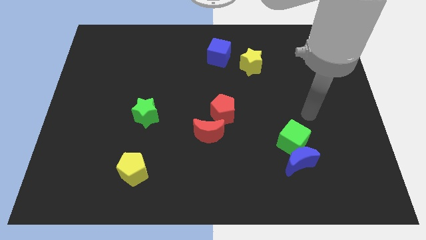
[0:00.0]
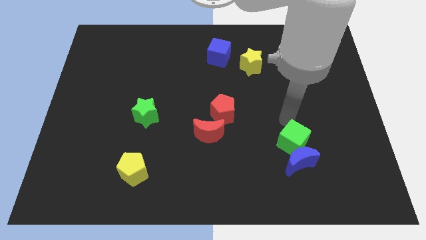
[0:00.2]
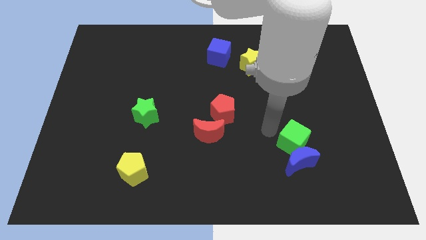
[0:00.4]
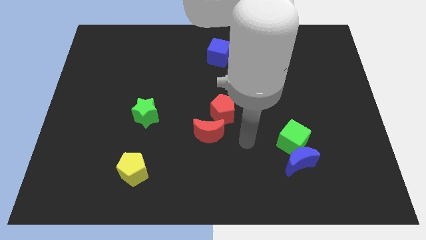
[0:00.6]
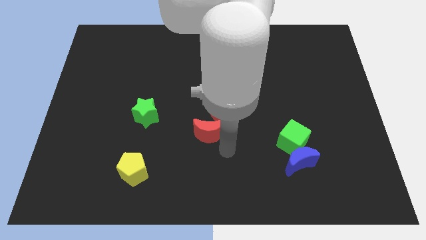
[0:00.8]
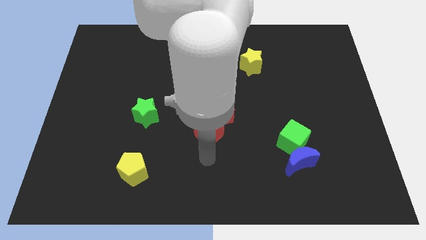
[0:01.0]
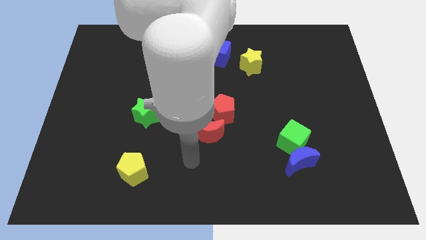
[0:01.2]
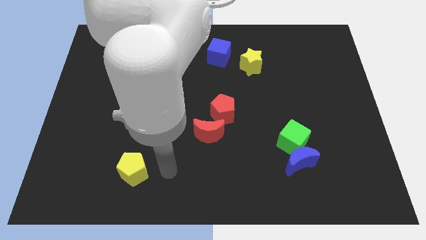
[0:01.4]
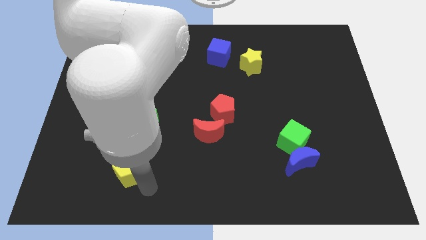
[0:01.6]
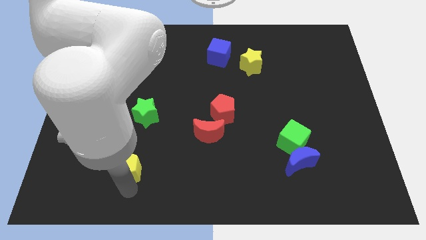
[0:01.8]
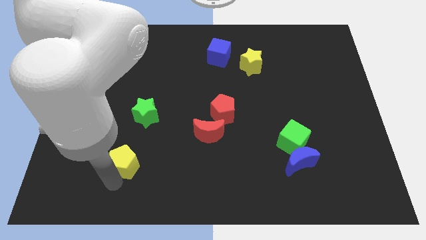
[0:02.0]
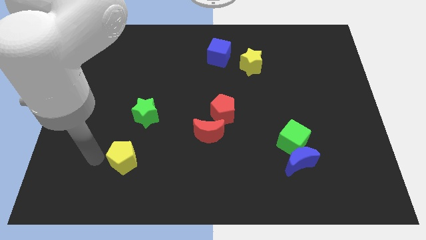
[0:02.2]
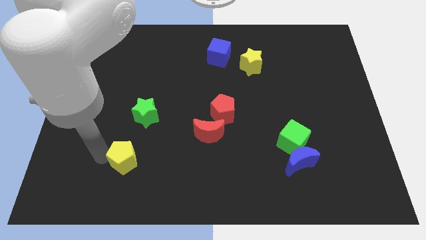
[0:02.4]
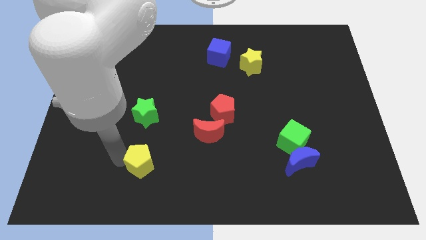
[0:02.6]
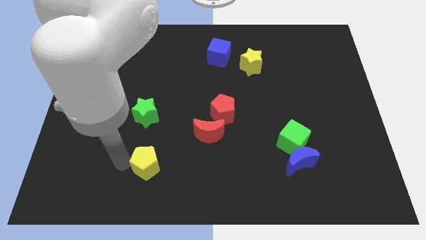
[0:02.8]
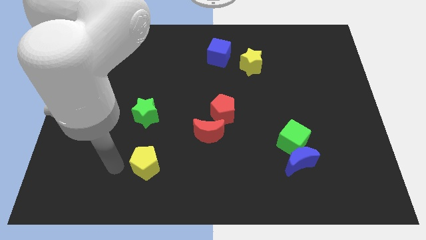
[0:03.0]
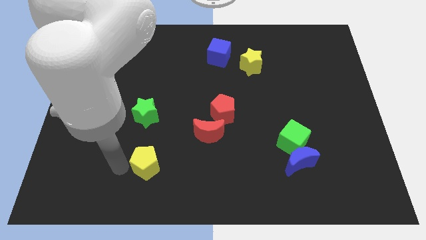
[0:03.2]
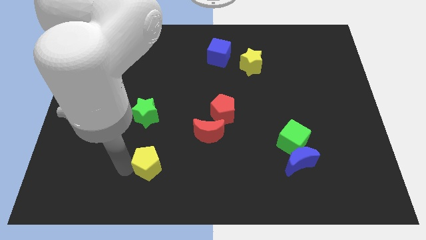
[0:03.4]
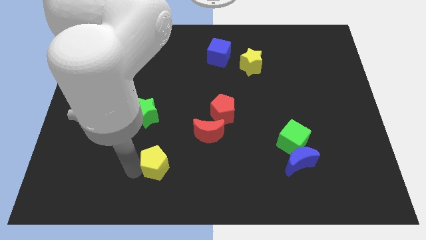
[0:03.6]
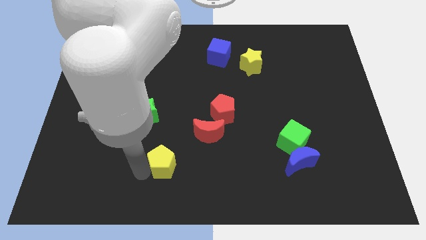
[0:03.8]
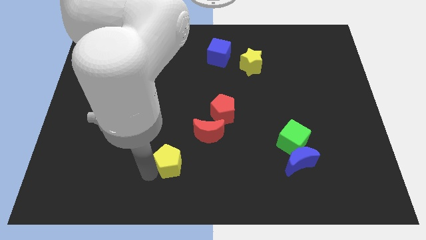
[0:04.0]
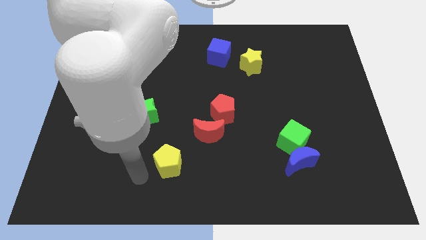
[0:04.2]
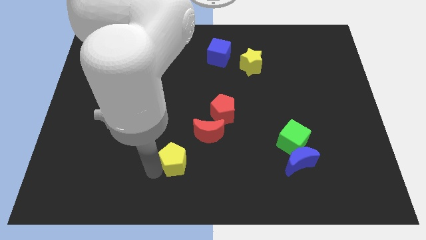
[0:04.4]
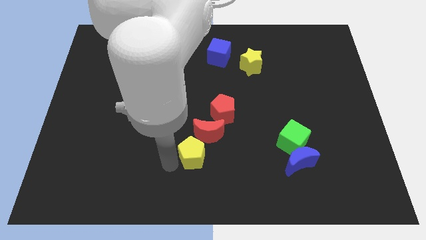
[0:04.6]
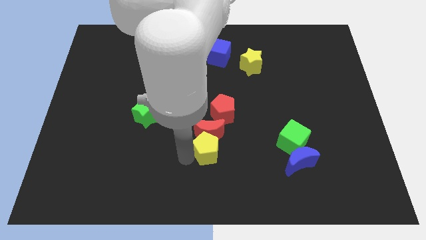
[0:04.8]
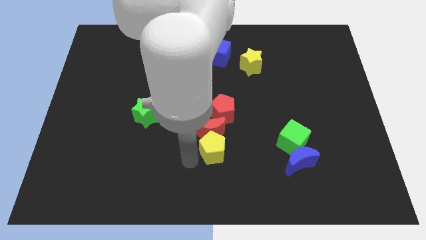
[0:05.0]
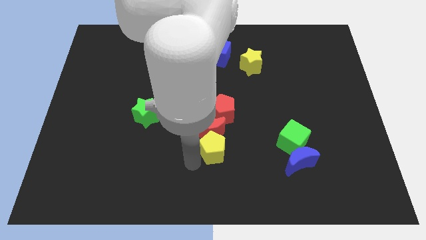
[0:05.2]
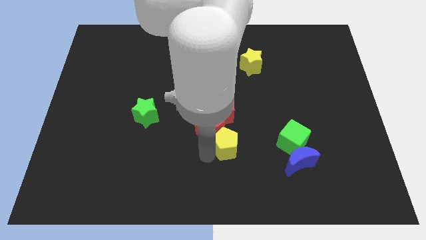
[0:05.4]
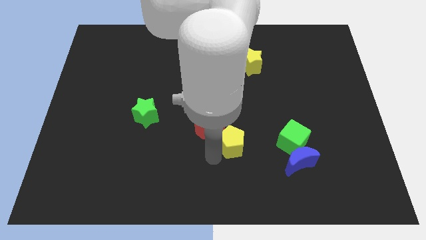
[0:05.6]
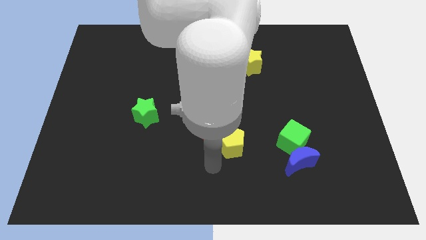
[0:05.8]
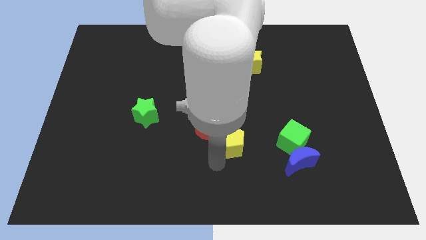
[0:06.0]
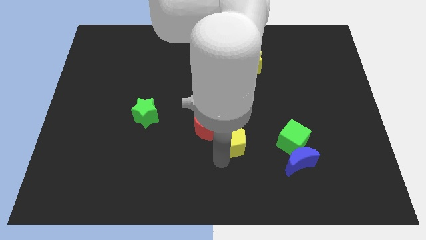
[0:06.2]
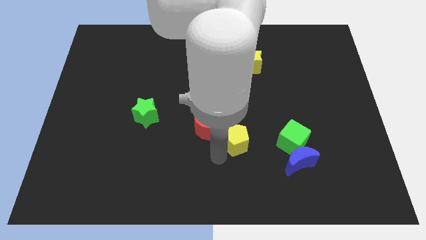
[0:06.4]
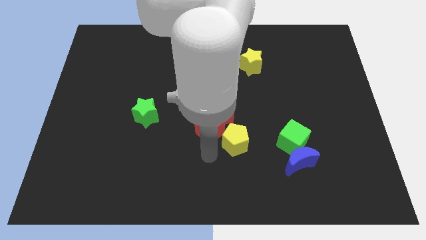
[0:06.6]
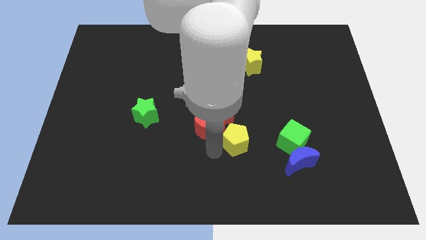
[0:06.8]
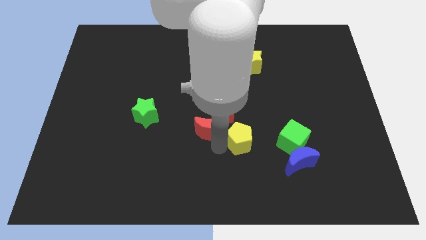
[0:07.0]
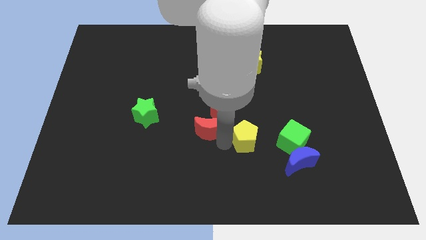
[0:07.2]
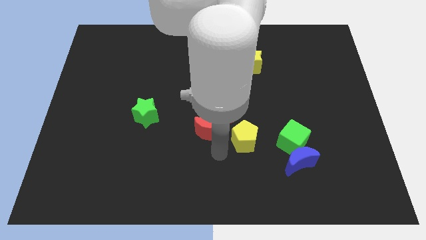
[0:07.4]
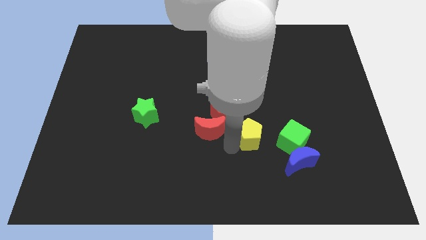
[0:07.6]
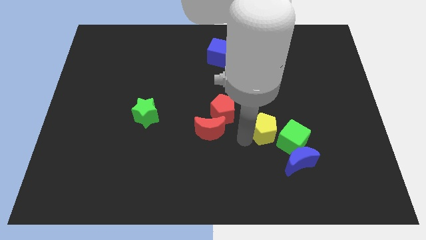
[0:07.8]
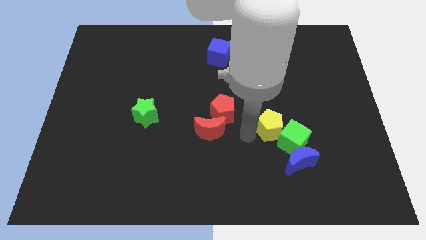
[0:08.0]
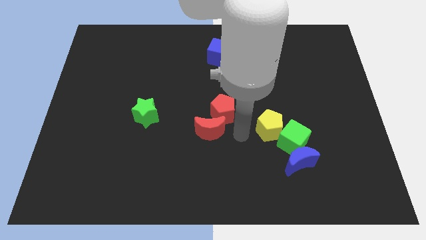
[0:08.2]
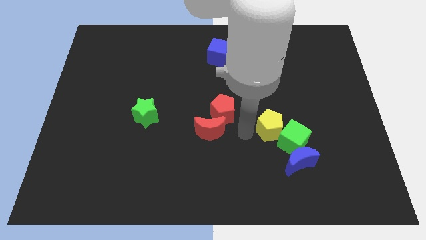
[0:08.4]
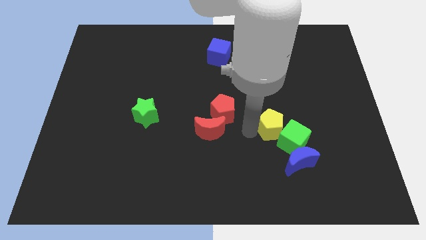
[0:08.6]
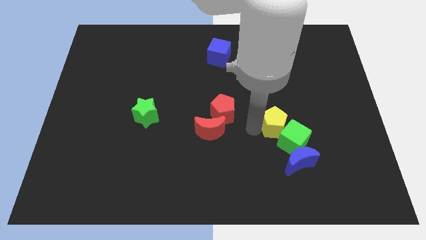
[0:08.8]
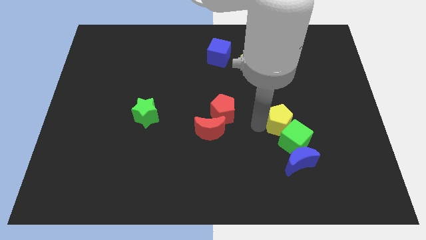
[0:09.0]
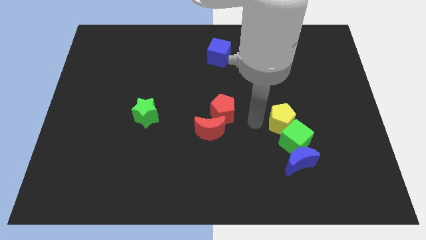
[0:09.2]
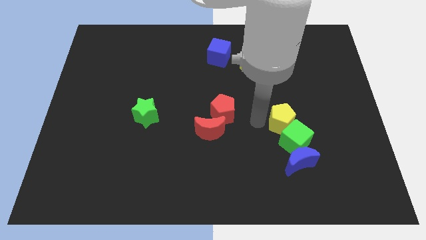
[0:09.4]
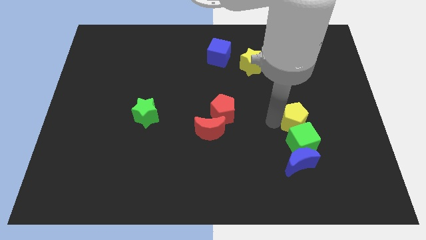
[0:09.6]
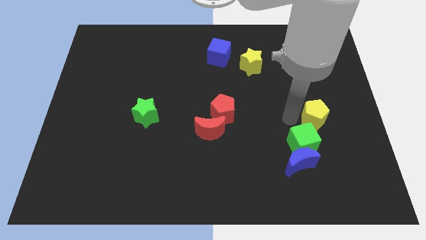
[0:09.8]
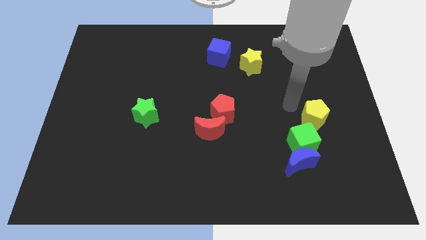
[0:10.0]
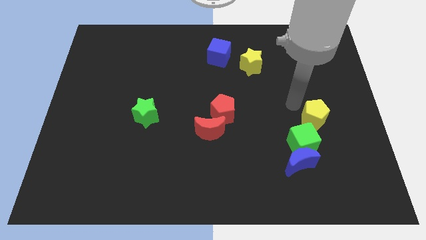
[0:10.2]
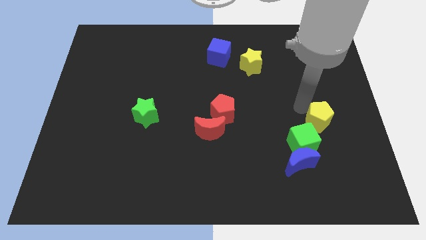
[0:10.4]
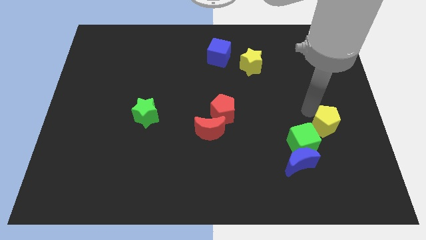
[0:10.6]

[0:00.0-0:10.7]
move the yellow pentagon to the right side of the green cube

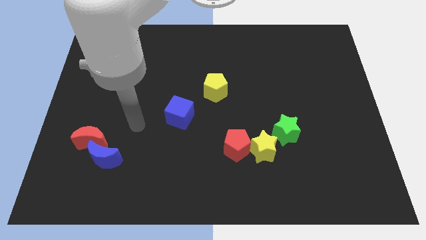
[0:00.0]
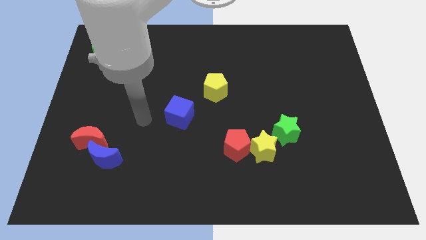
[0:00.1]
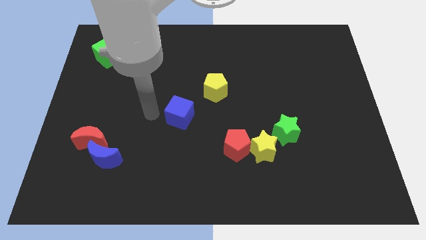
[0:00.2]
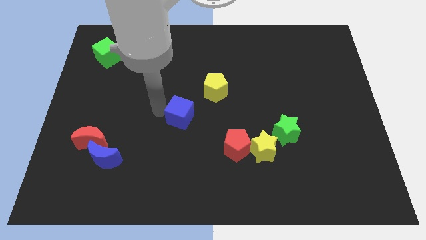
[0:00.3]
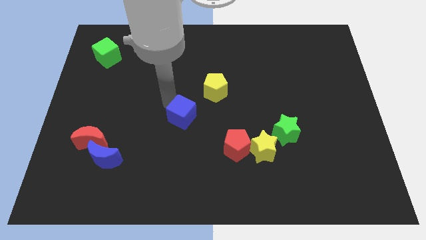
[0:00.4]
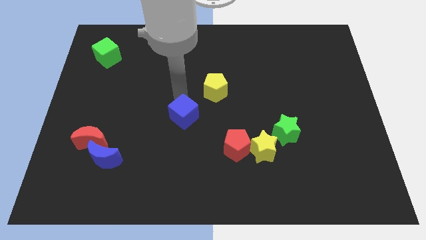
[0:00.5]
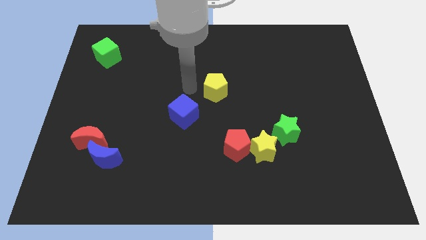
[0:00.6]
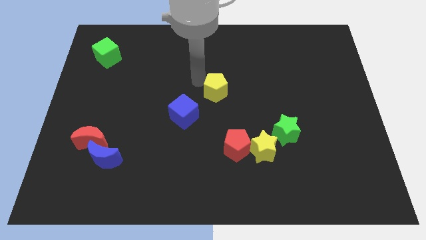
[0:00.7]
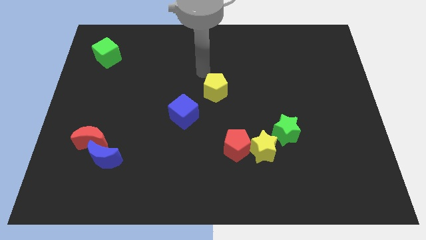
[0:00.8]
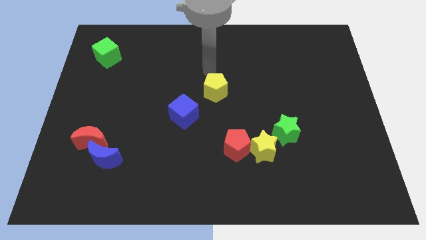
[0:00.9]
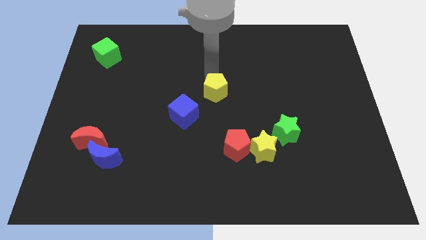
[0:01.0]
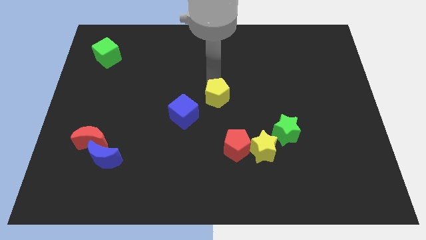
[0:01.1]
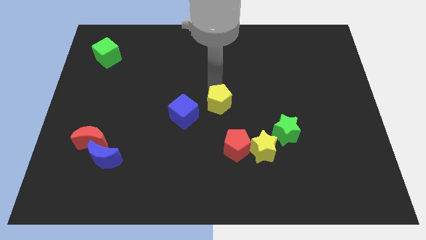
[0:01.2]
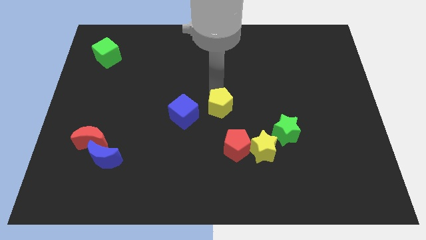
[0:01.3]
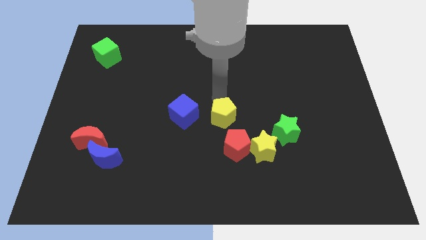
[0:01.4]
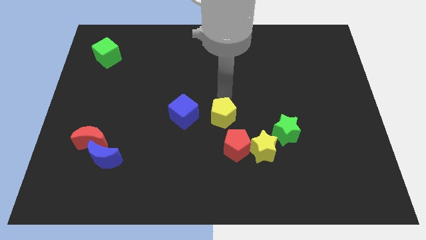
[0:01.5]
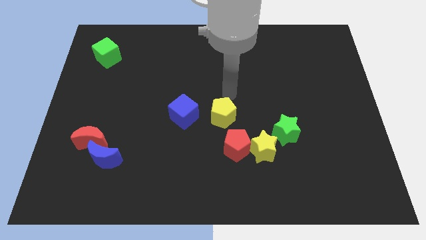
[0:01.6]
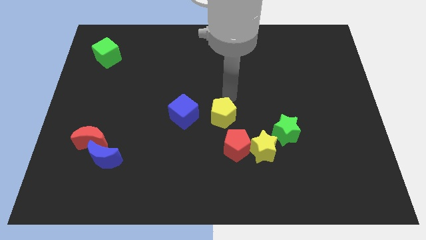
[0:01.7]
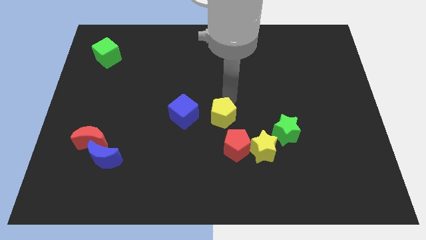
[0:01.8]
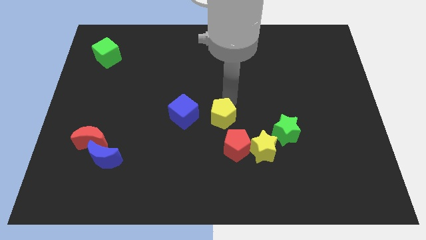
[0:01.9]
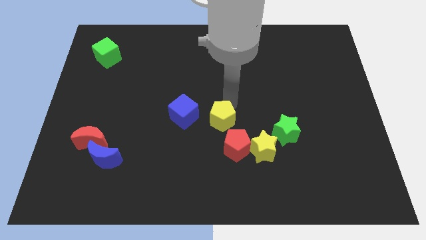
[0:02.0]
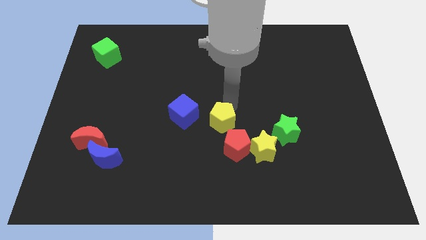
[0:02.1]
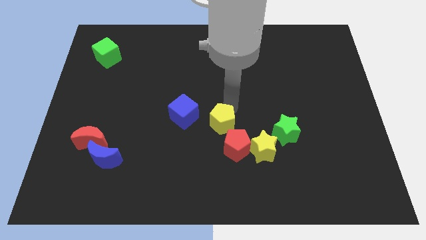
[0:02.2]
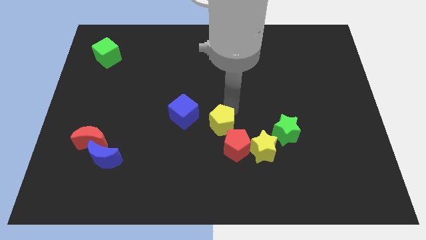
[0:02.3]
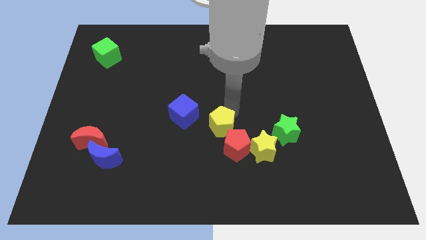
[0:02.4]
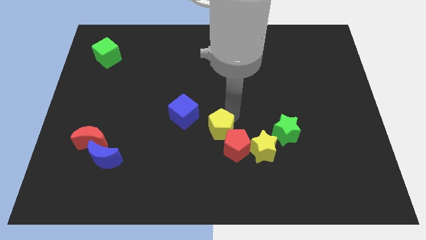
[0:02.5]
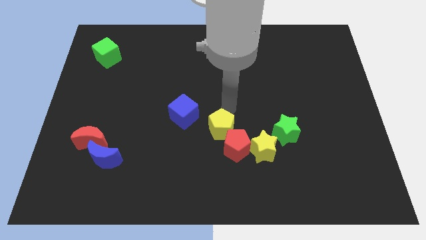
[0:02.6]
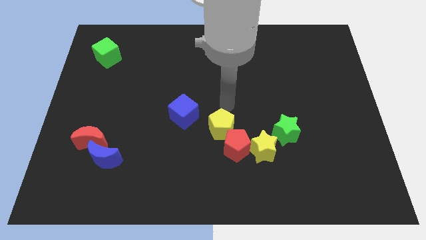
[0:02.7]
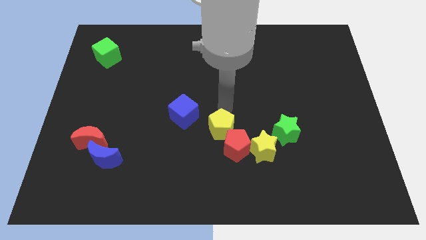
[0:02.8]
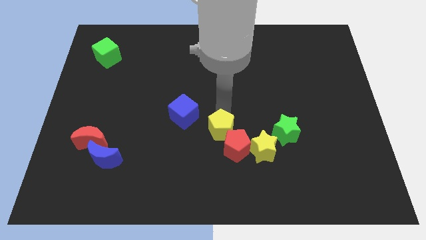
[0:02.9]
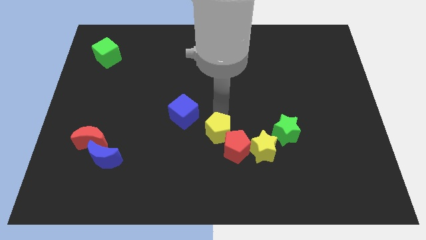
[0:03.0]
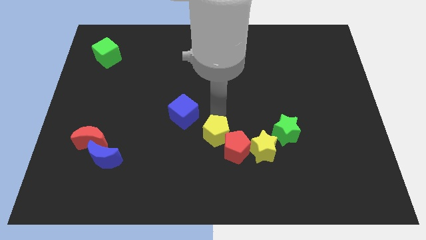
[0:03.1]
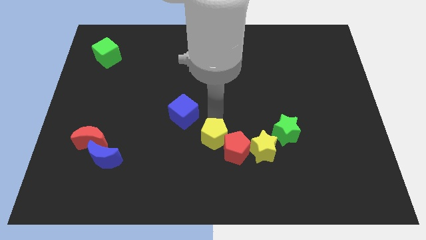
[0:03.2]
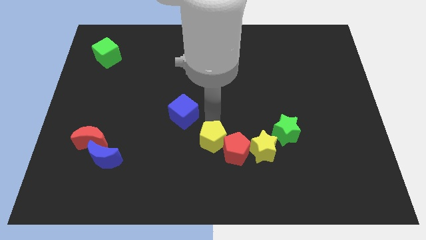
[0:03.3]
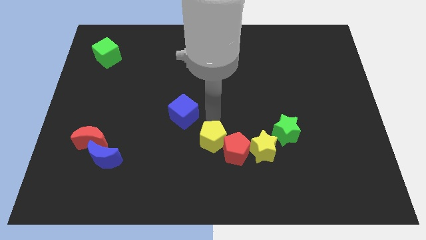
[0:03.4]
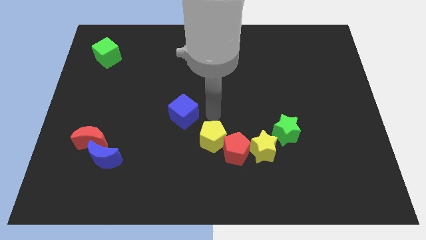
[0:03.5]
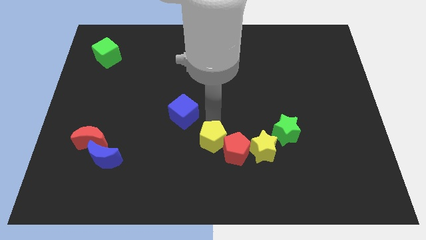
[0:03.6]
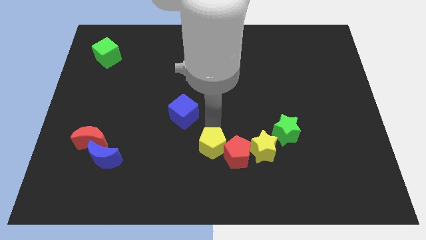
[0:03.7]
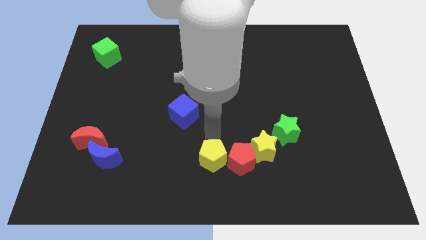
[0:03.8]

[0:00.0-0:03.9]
put the yellow pentagon to the bottom left side of the red pentagon
